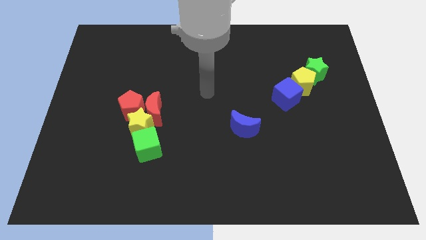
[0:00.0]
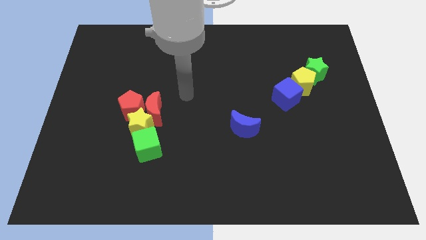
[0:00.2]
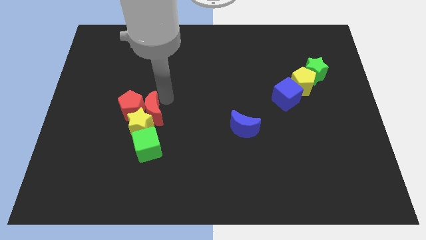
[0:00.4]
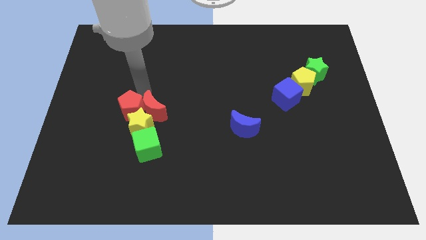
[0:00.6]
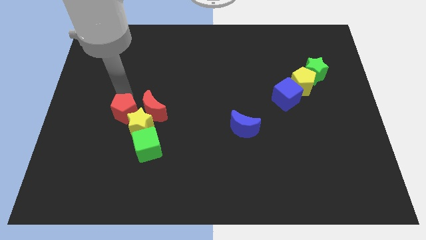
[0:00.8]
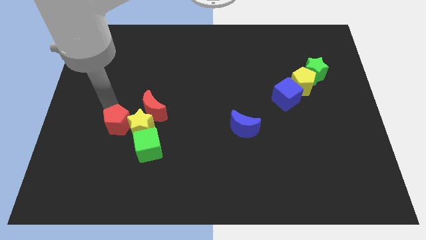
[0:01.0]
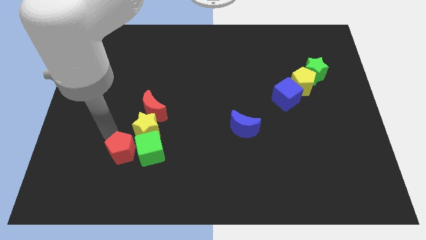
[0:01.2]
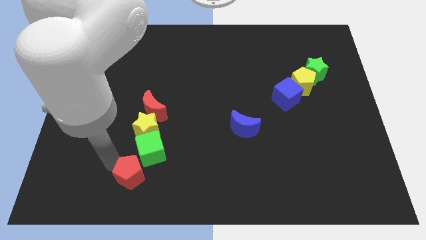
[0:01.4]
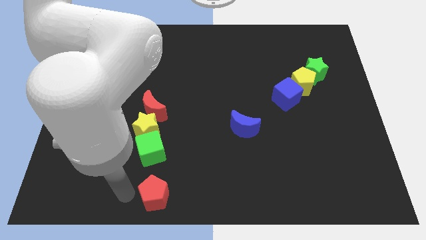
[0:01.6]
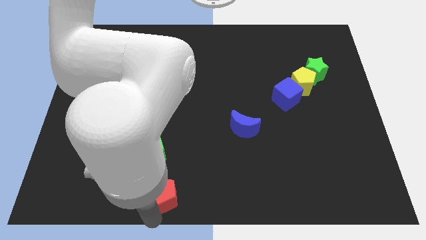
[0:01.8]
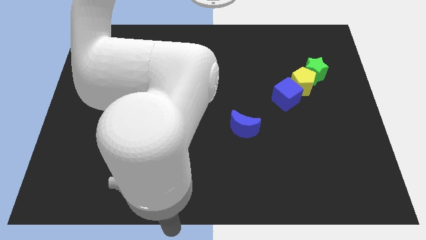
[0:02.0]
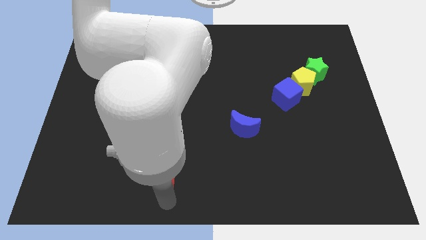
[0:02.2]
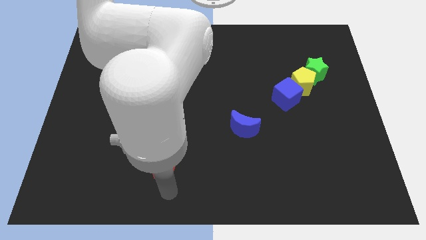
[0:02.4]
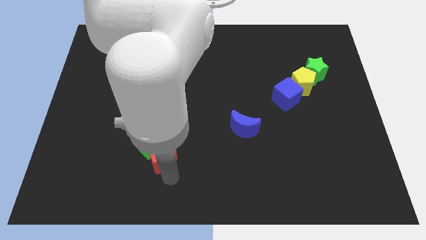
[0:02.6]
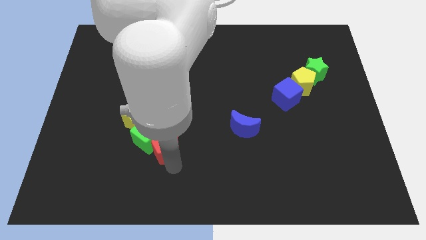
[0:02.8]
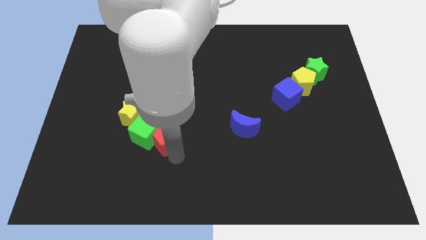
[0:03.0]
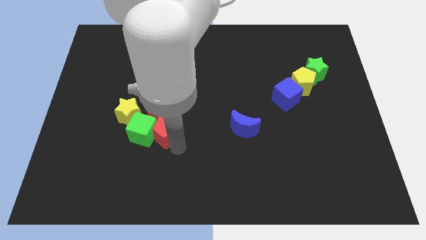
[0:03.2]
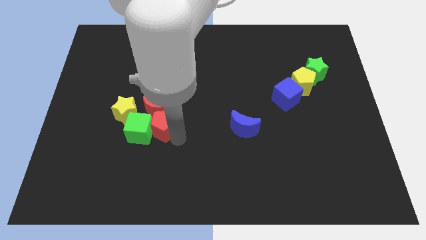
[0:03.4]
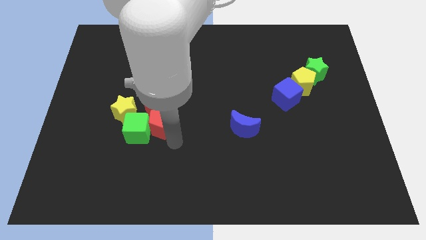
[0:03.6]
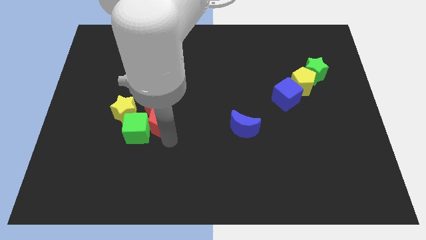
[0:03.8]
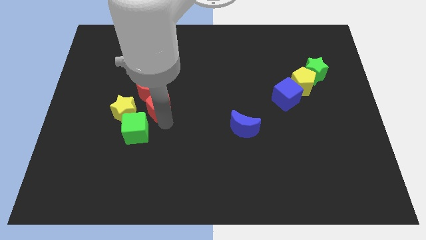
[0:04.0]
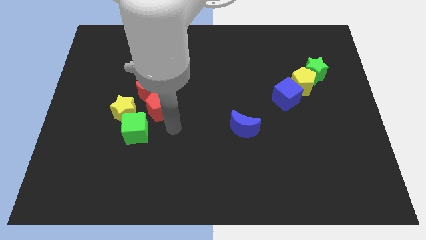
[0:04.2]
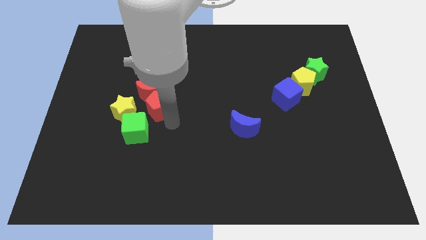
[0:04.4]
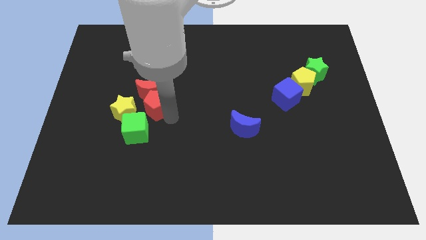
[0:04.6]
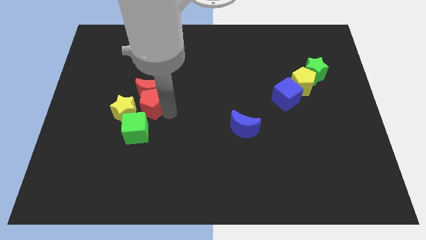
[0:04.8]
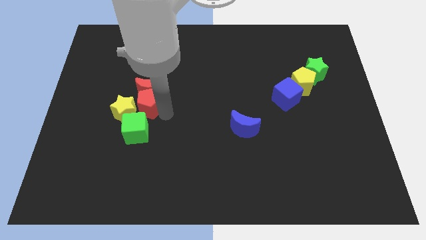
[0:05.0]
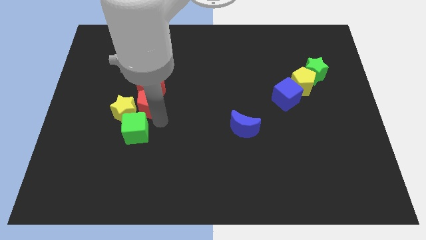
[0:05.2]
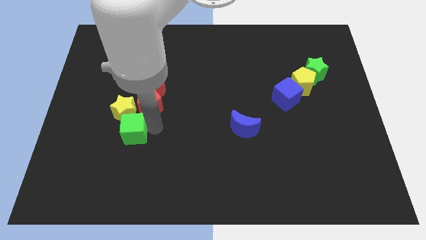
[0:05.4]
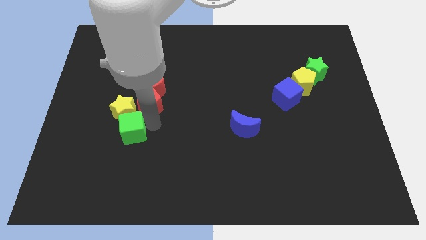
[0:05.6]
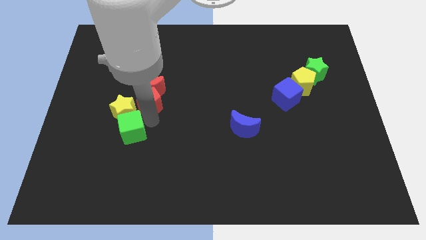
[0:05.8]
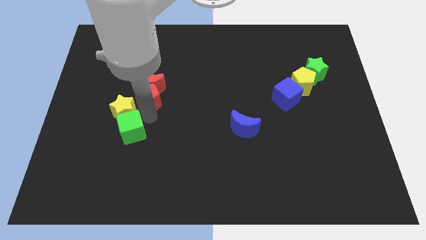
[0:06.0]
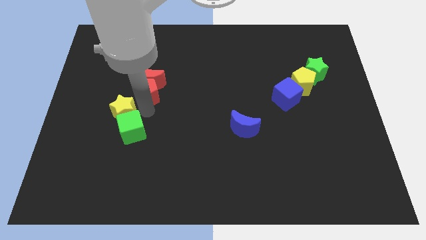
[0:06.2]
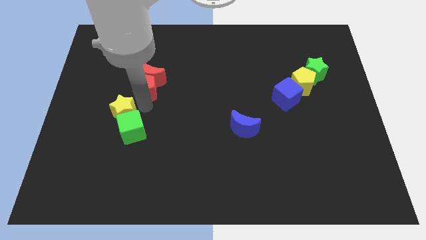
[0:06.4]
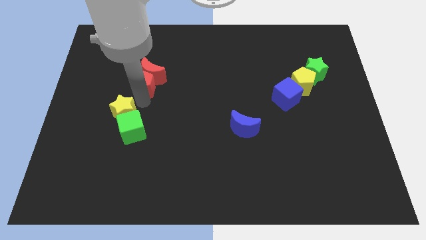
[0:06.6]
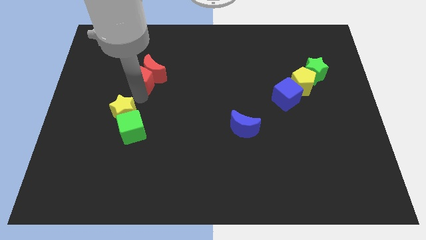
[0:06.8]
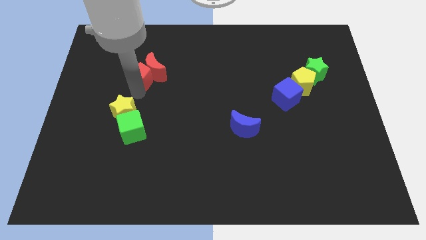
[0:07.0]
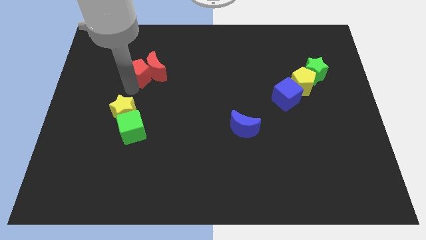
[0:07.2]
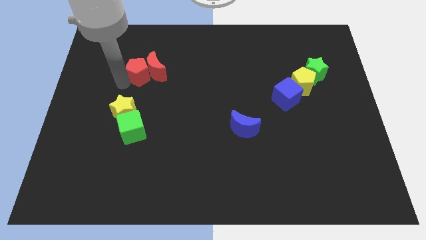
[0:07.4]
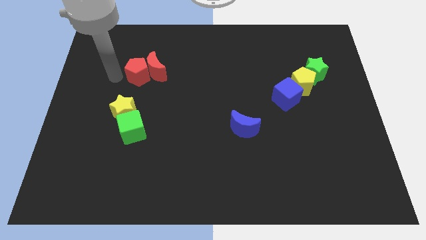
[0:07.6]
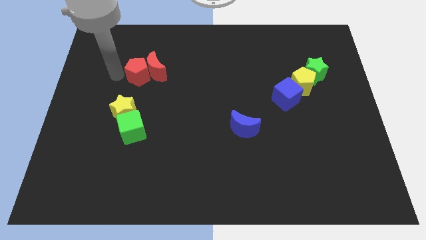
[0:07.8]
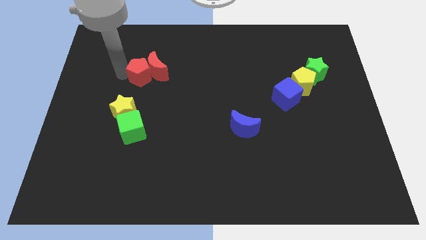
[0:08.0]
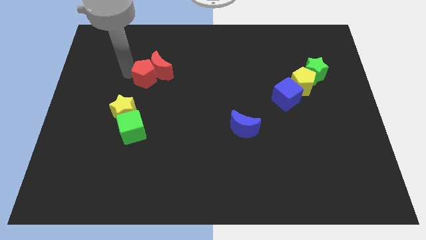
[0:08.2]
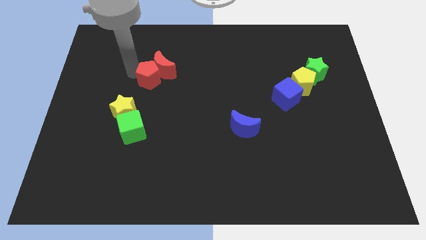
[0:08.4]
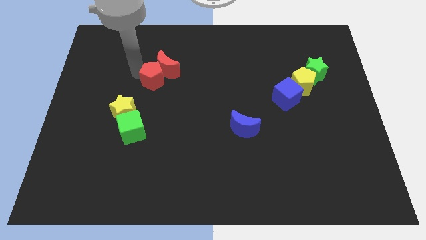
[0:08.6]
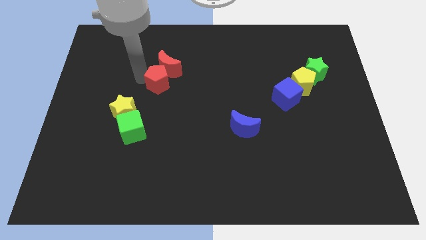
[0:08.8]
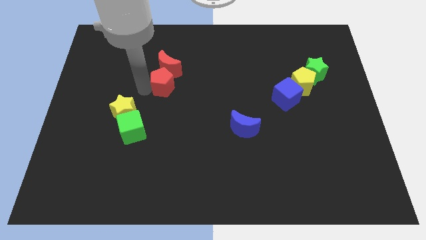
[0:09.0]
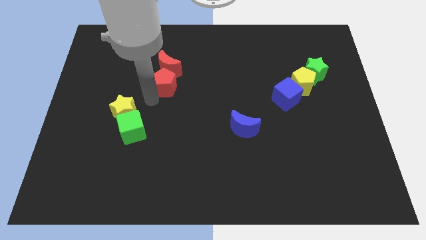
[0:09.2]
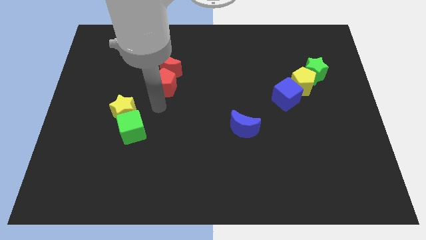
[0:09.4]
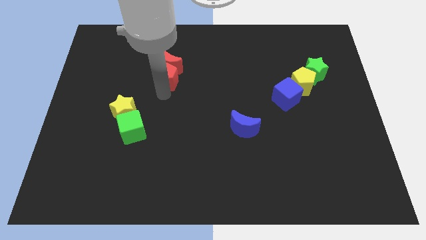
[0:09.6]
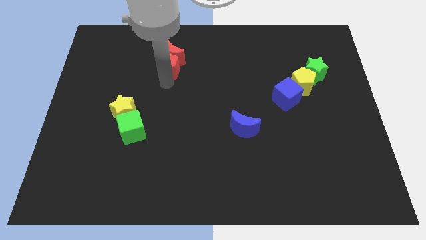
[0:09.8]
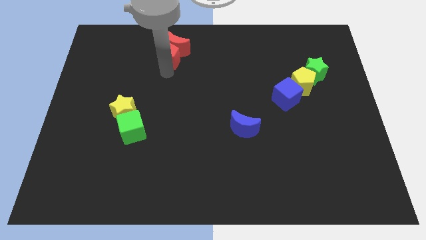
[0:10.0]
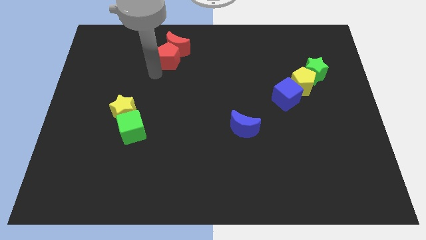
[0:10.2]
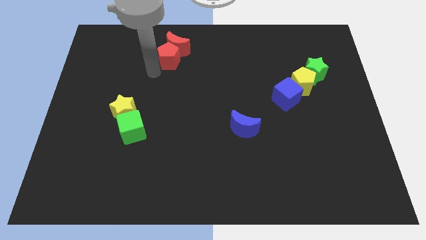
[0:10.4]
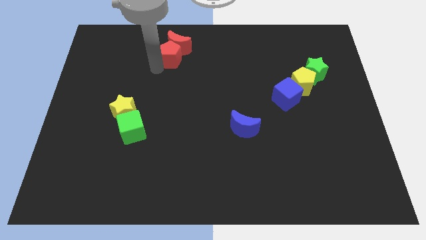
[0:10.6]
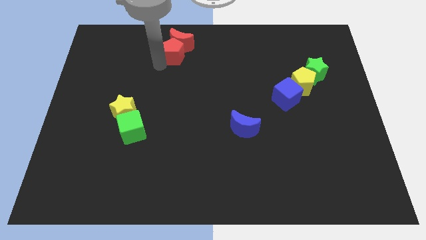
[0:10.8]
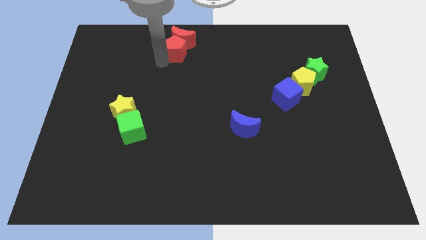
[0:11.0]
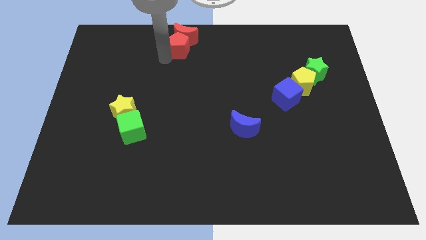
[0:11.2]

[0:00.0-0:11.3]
put the red pentagon to the towards your base

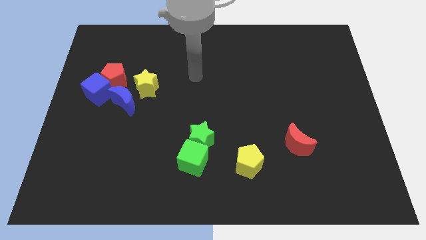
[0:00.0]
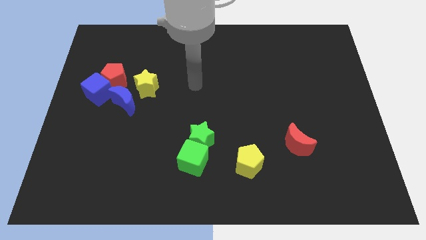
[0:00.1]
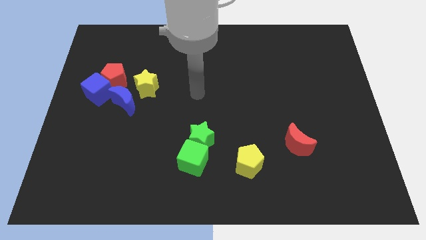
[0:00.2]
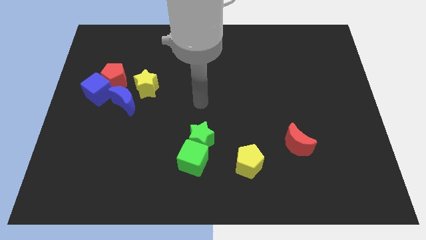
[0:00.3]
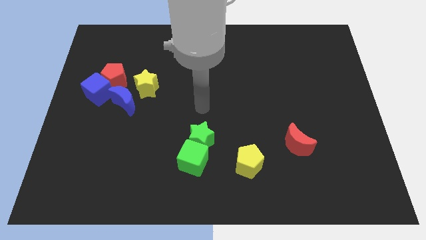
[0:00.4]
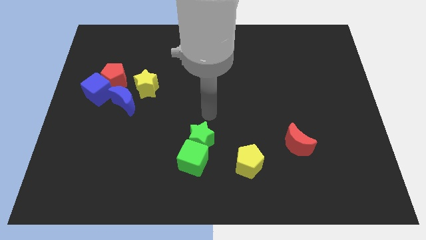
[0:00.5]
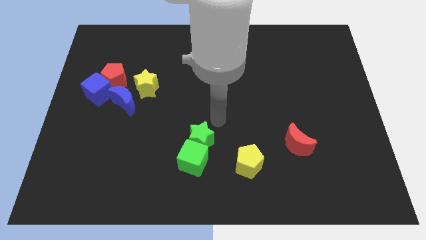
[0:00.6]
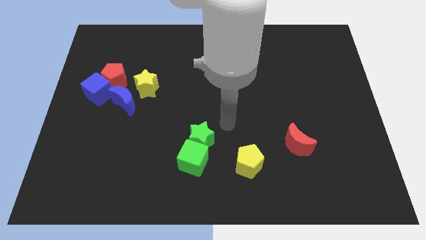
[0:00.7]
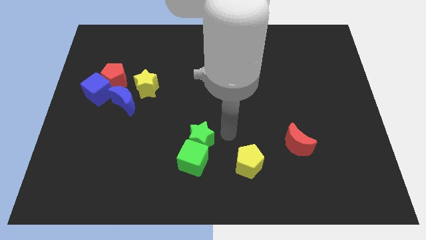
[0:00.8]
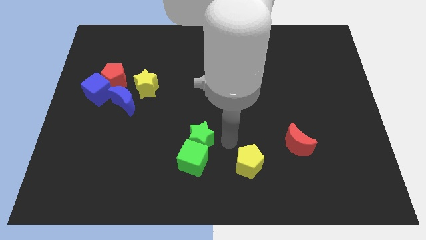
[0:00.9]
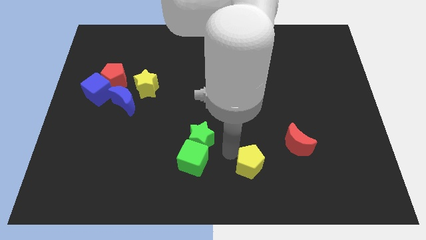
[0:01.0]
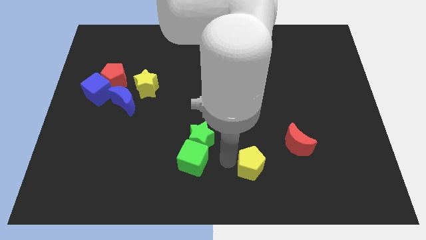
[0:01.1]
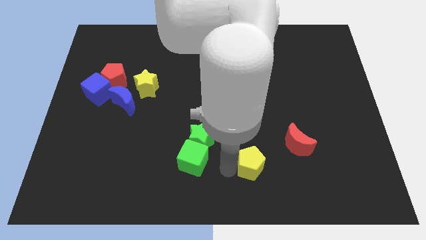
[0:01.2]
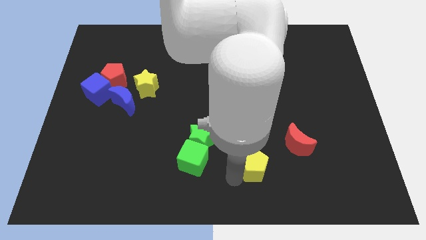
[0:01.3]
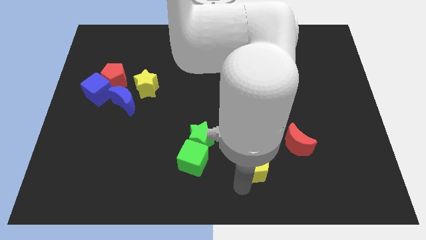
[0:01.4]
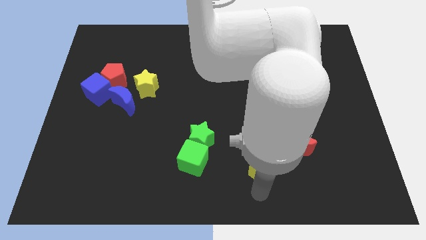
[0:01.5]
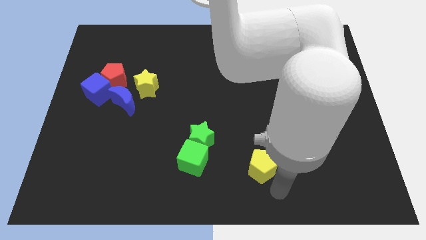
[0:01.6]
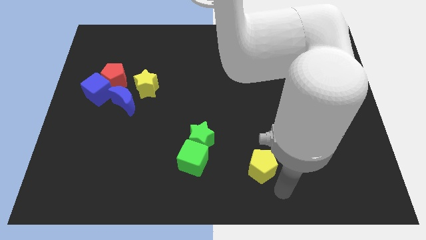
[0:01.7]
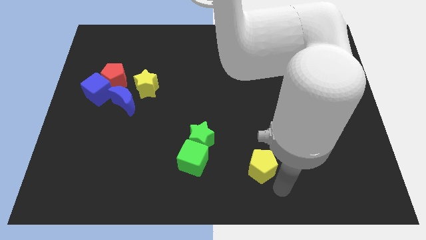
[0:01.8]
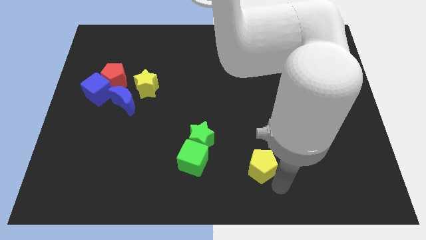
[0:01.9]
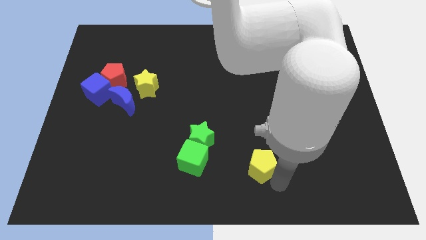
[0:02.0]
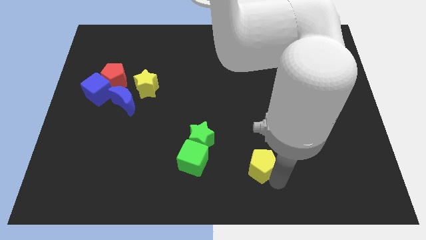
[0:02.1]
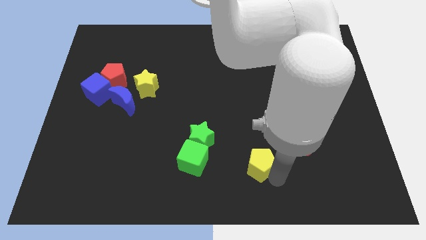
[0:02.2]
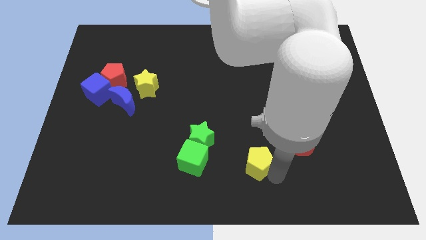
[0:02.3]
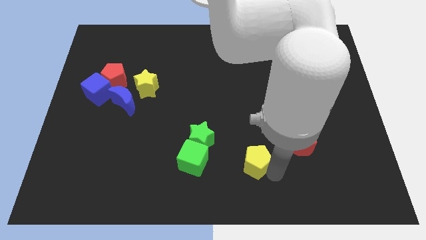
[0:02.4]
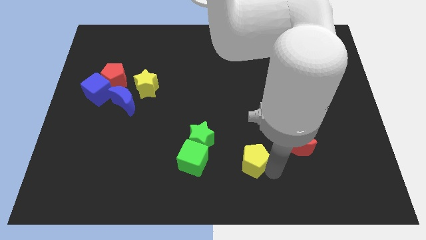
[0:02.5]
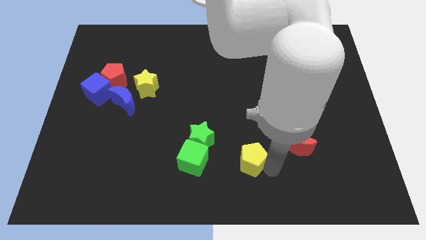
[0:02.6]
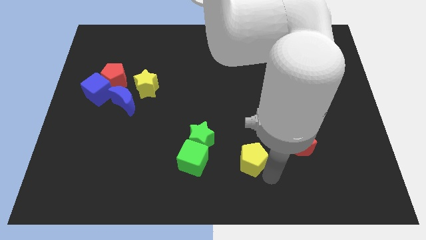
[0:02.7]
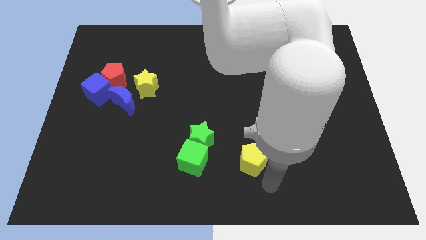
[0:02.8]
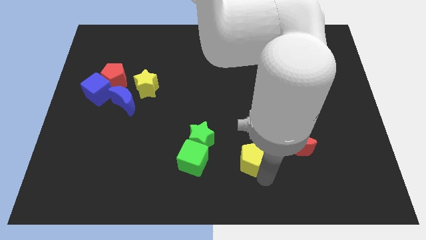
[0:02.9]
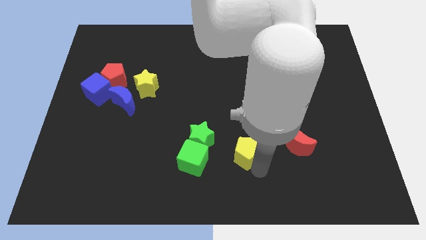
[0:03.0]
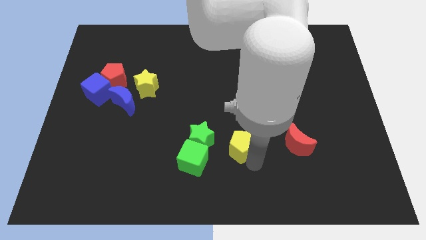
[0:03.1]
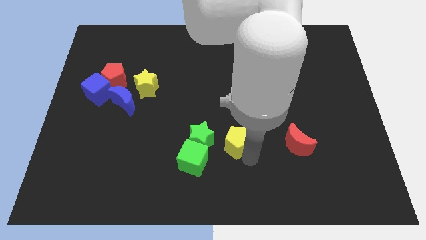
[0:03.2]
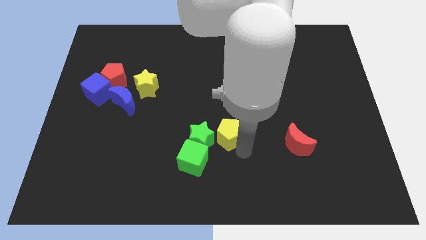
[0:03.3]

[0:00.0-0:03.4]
push the yellow pentagon to the middle
